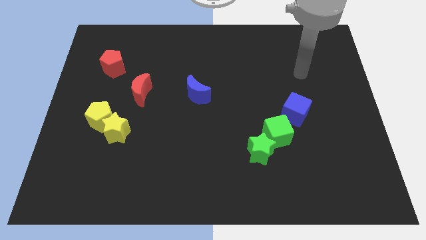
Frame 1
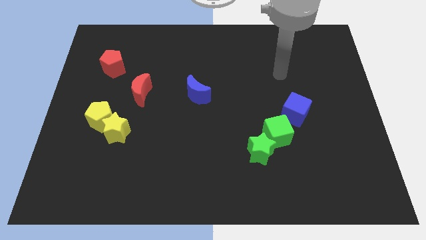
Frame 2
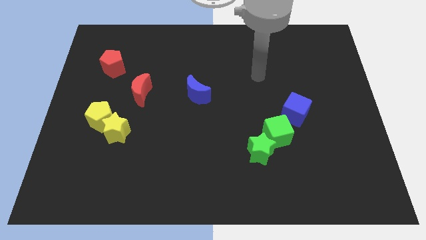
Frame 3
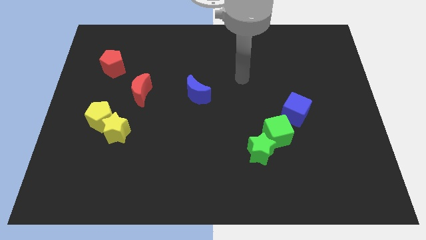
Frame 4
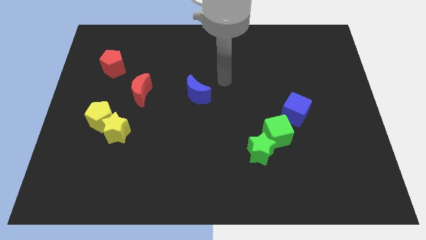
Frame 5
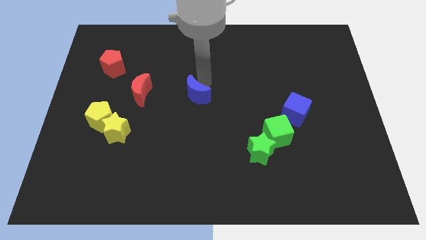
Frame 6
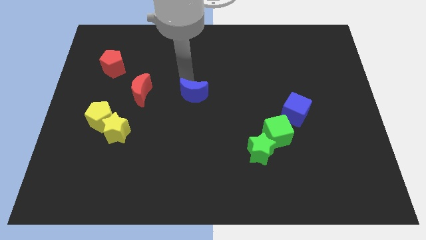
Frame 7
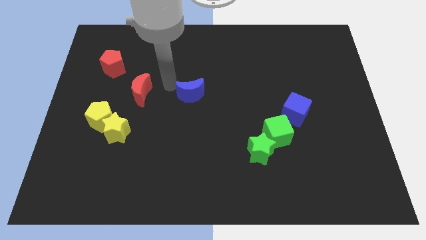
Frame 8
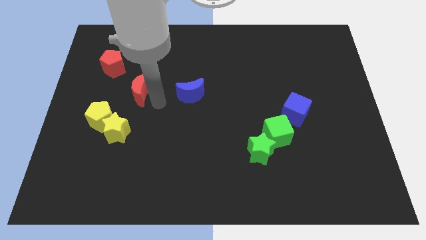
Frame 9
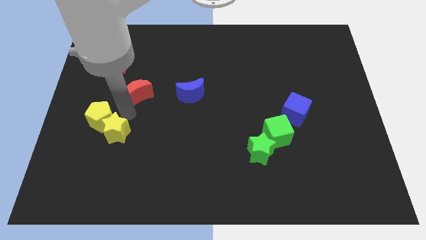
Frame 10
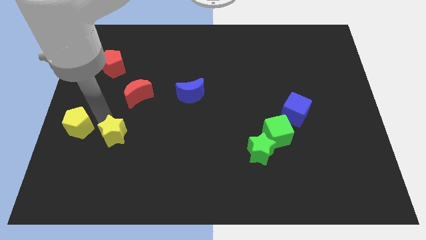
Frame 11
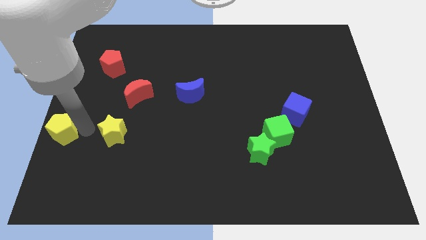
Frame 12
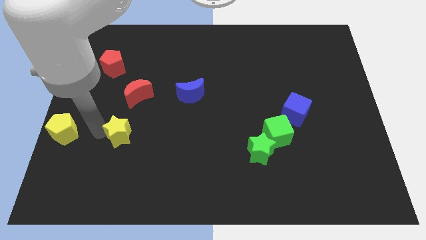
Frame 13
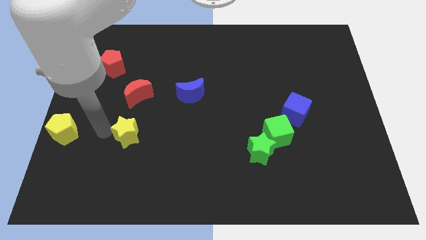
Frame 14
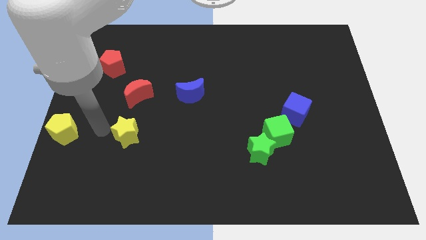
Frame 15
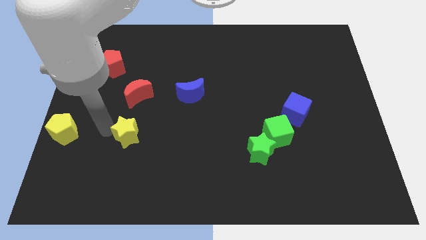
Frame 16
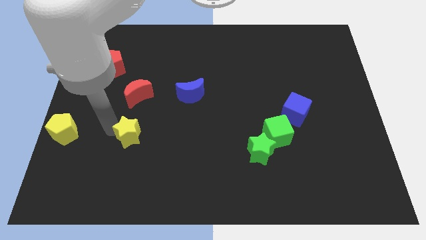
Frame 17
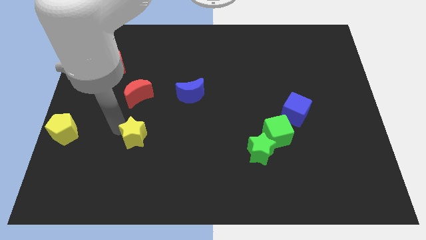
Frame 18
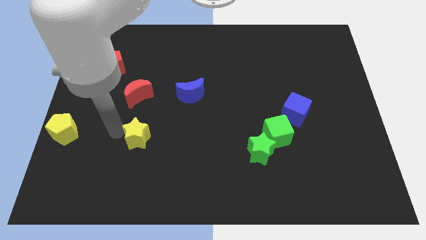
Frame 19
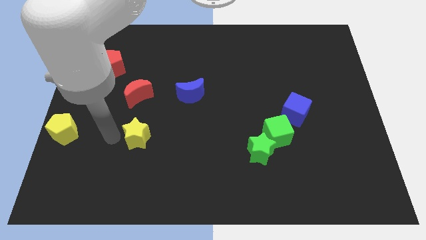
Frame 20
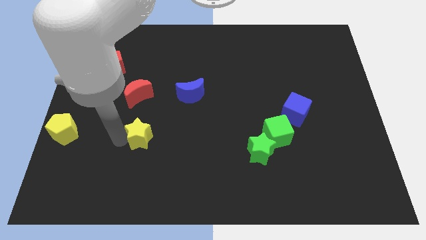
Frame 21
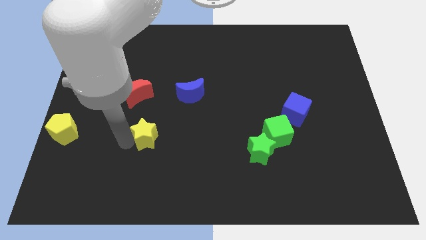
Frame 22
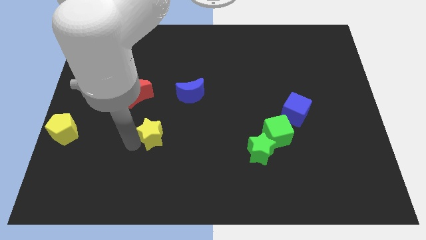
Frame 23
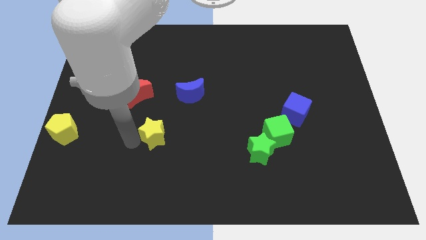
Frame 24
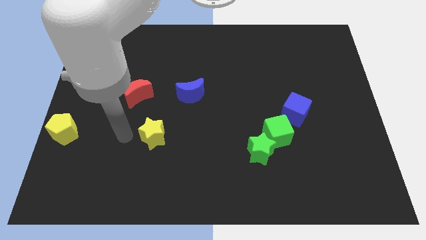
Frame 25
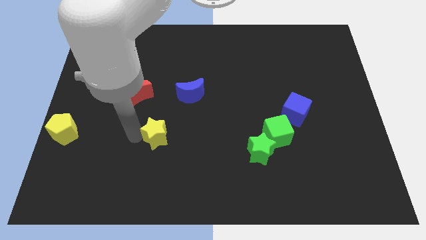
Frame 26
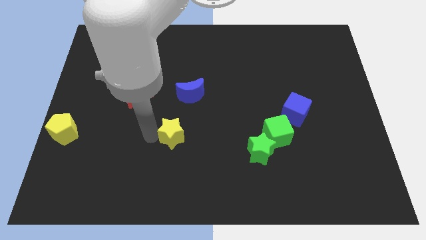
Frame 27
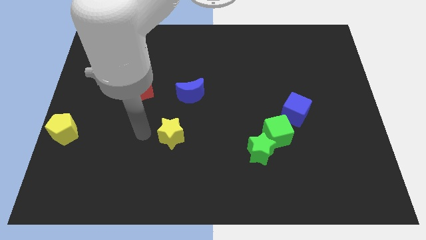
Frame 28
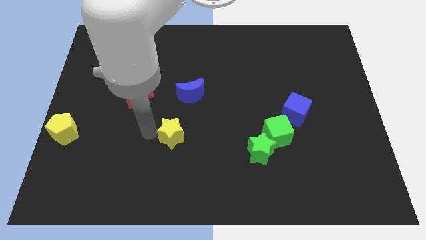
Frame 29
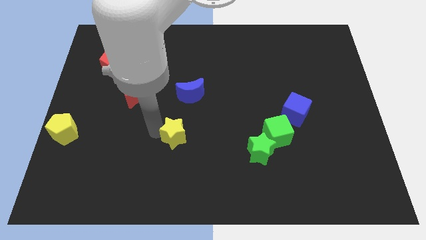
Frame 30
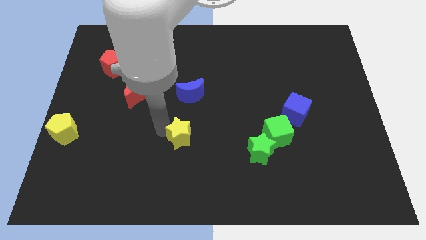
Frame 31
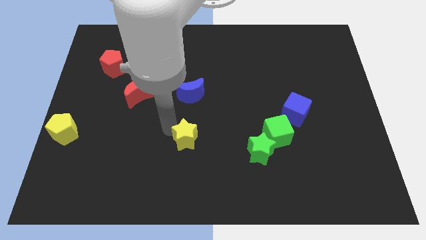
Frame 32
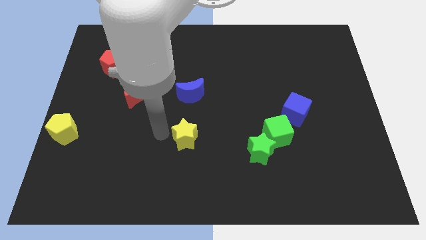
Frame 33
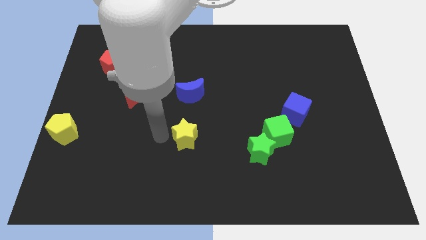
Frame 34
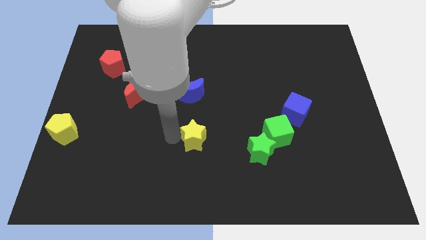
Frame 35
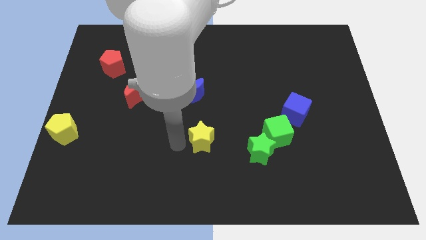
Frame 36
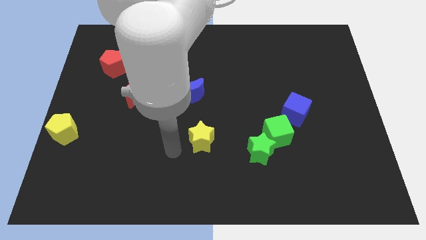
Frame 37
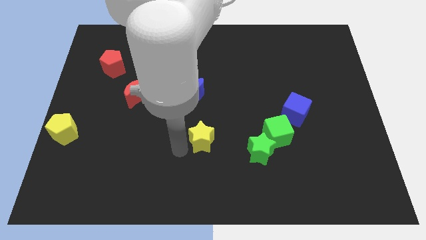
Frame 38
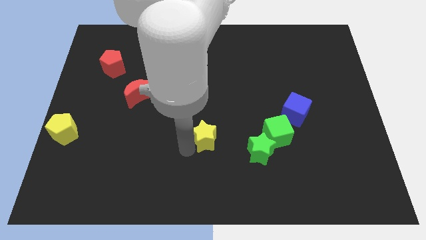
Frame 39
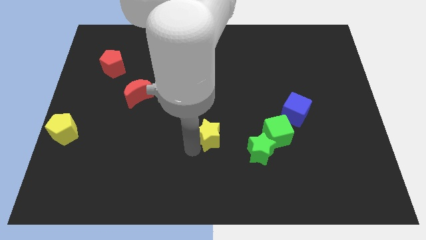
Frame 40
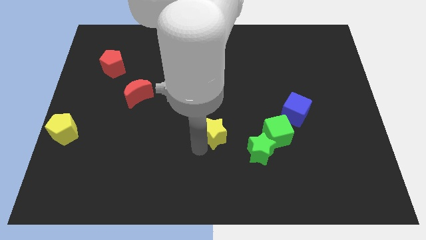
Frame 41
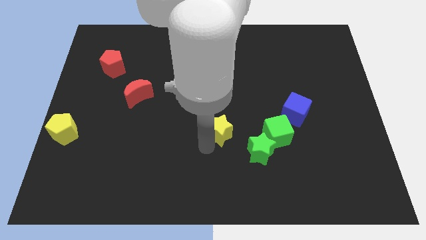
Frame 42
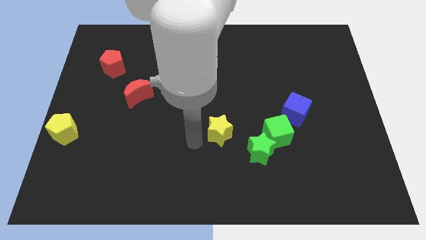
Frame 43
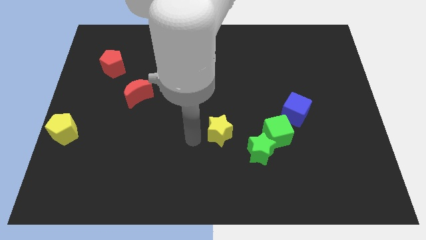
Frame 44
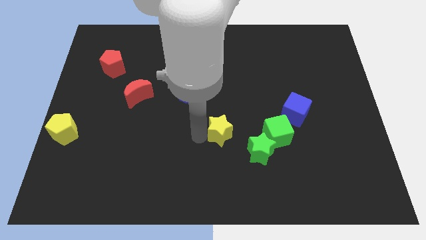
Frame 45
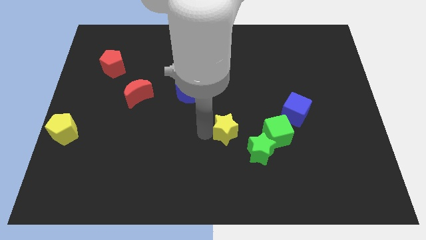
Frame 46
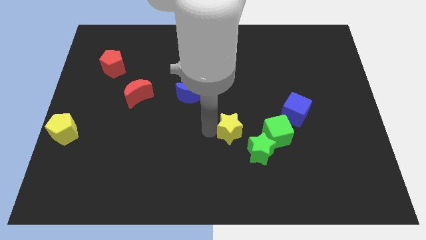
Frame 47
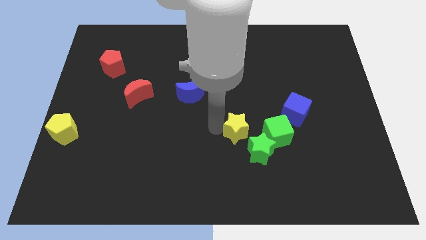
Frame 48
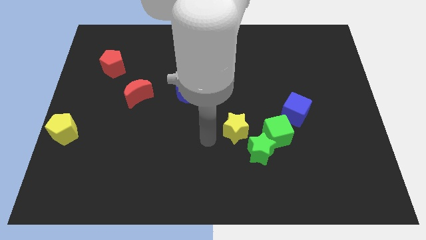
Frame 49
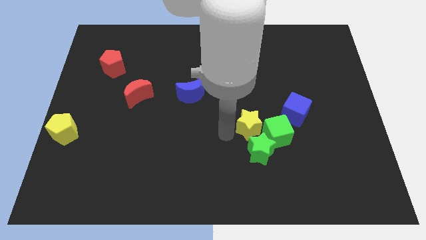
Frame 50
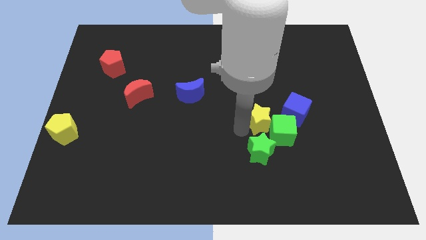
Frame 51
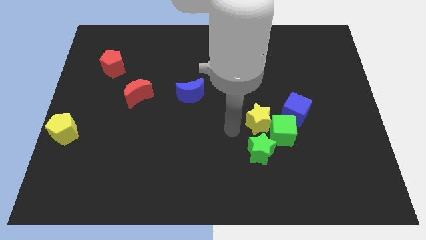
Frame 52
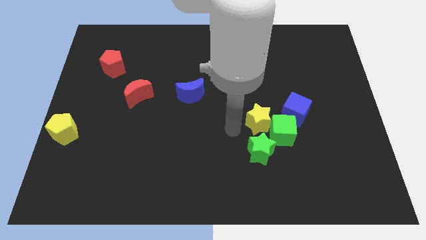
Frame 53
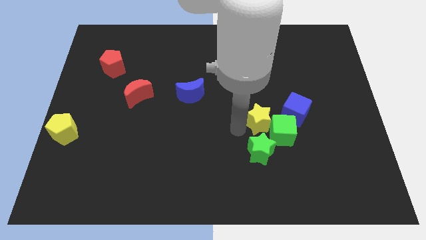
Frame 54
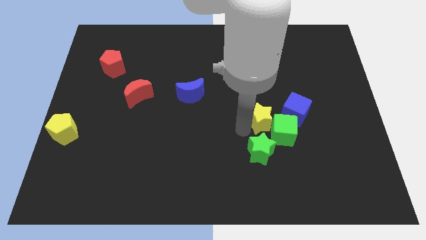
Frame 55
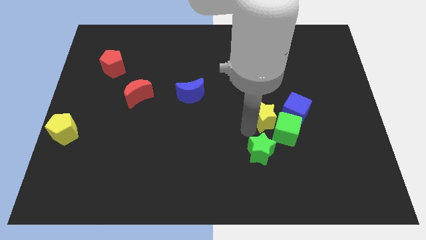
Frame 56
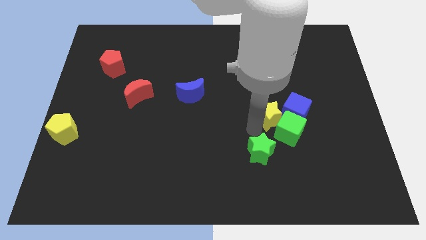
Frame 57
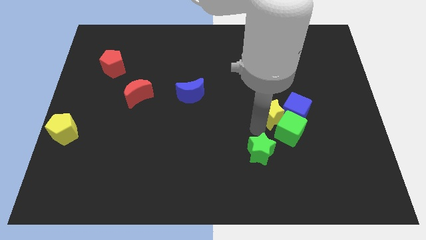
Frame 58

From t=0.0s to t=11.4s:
move the yellow star towards the blue cube
